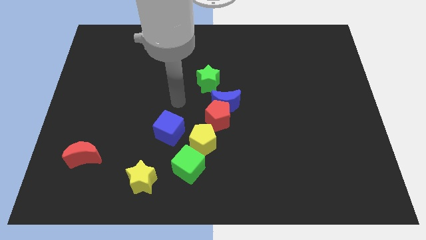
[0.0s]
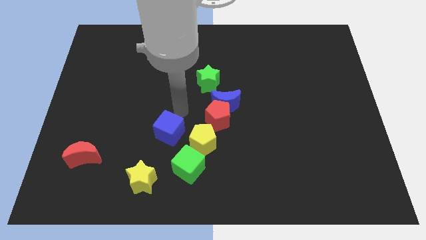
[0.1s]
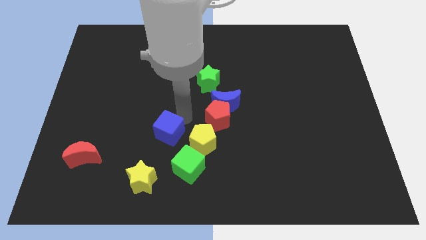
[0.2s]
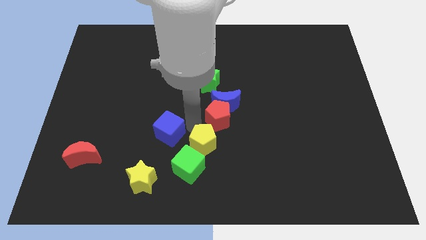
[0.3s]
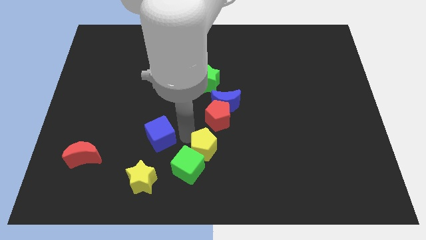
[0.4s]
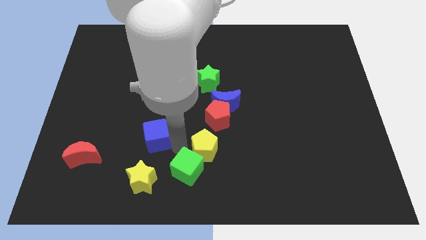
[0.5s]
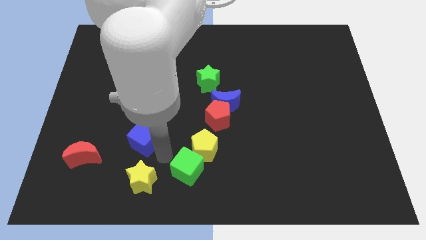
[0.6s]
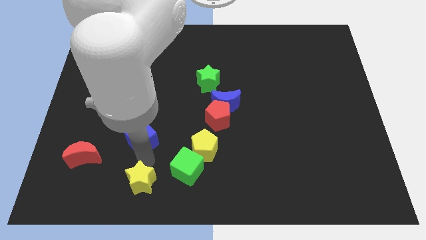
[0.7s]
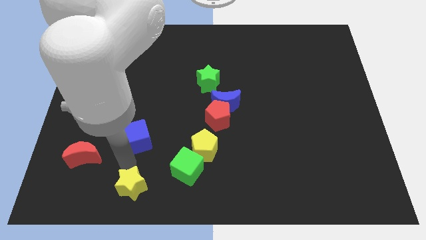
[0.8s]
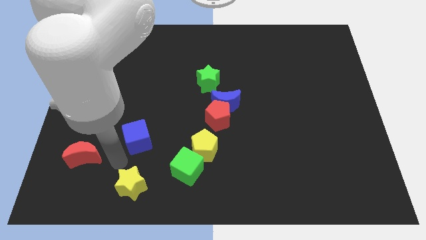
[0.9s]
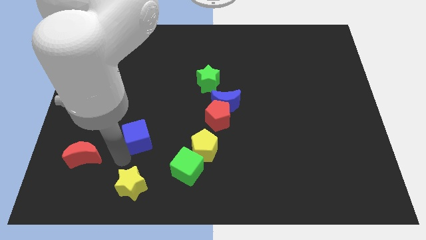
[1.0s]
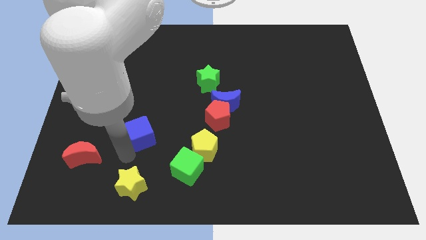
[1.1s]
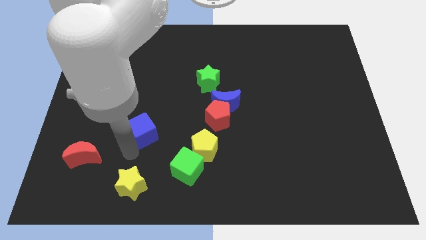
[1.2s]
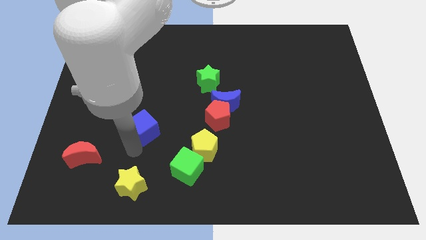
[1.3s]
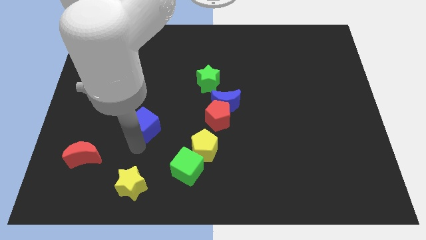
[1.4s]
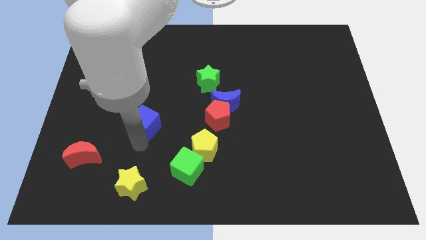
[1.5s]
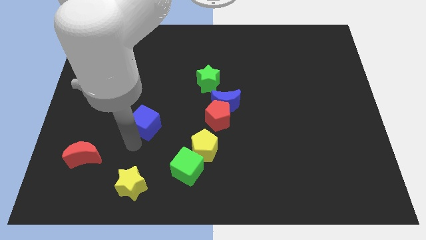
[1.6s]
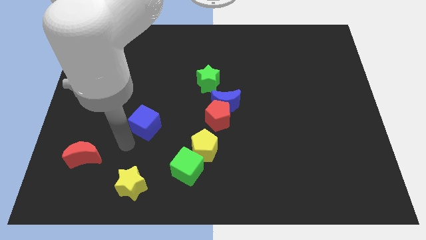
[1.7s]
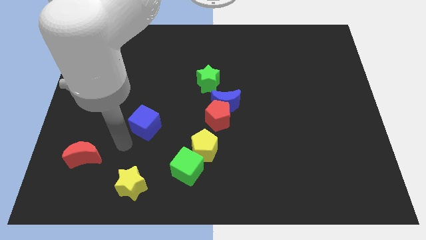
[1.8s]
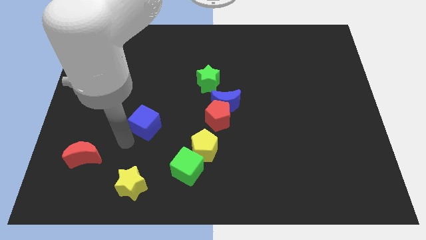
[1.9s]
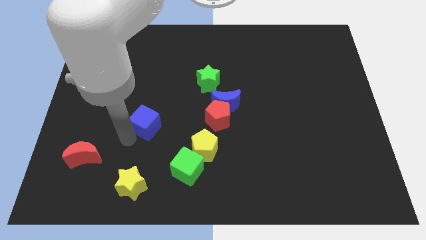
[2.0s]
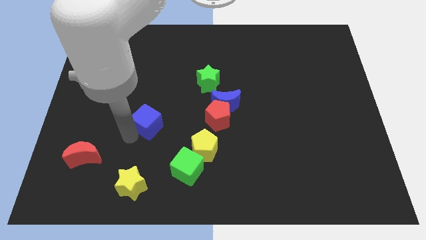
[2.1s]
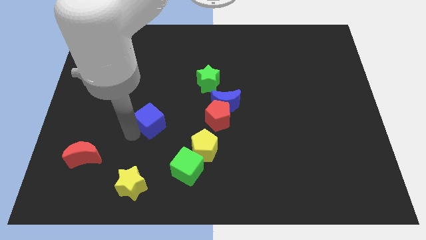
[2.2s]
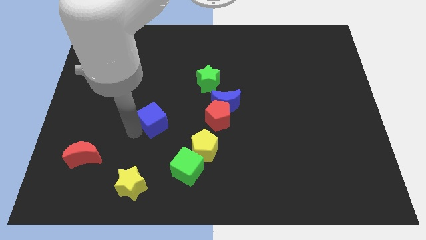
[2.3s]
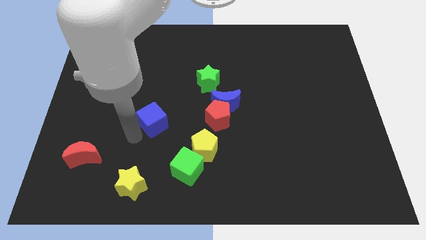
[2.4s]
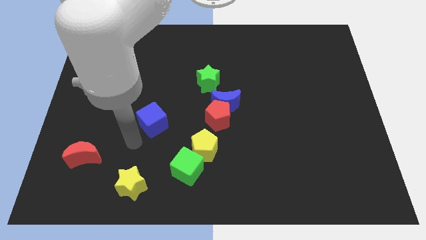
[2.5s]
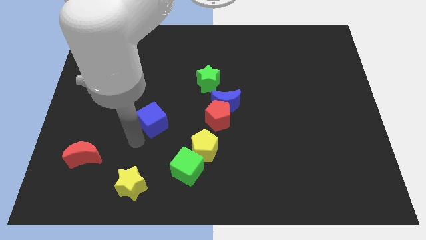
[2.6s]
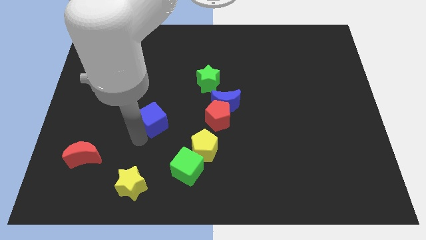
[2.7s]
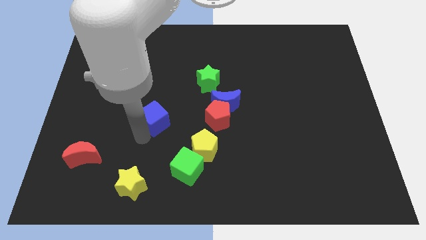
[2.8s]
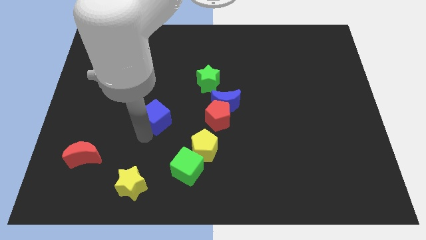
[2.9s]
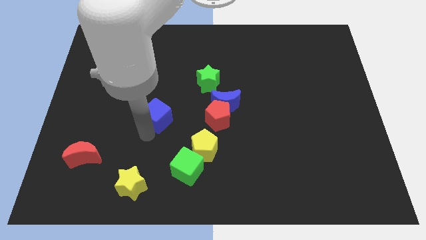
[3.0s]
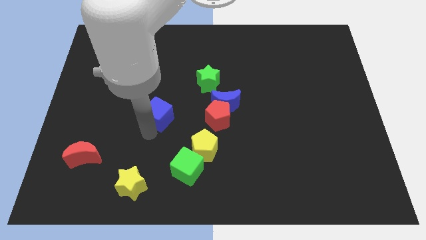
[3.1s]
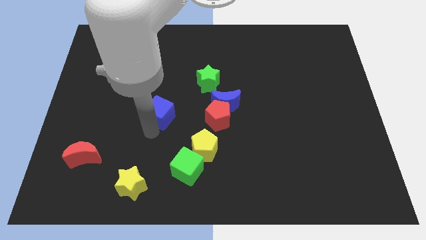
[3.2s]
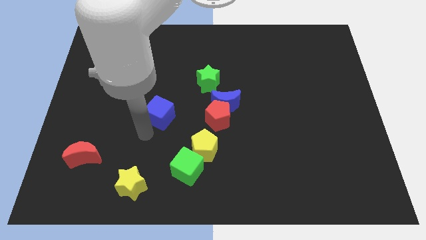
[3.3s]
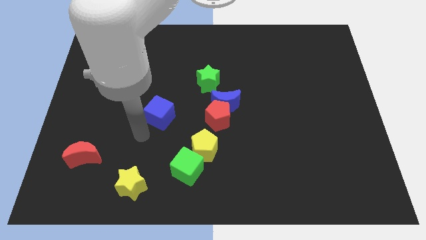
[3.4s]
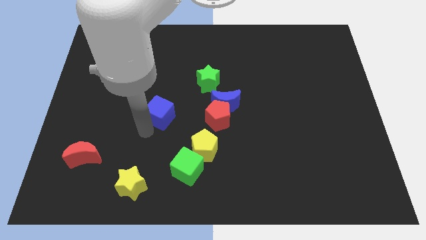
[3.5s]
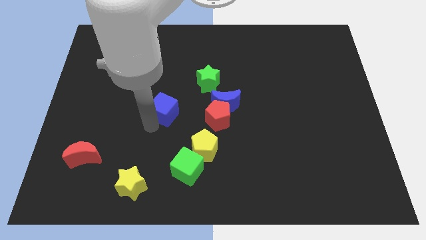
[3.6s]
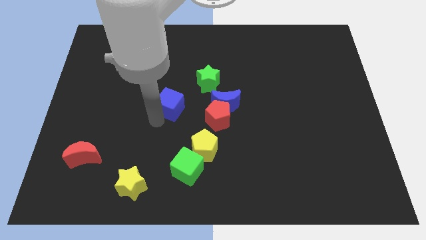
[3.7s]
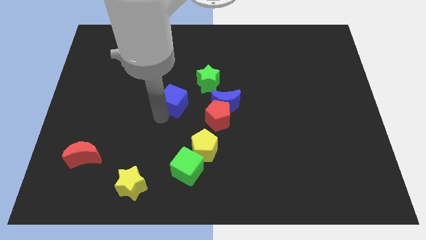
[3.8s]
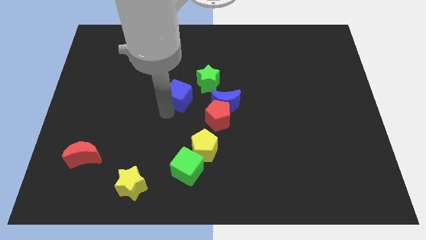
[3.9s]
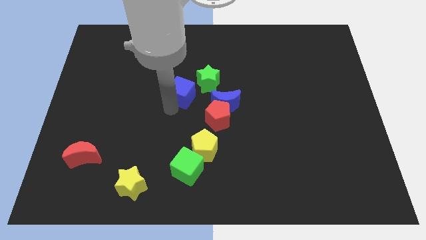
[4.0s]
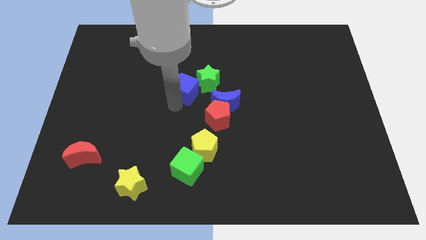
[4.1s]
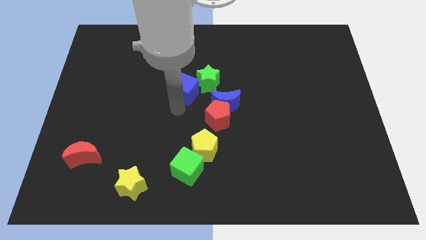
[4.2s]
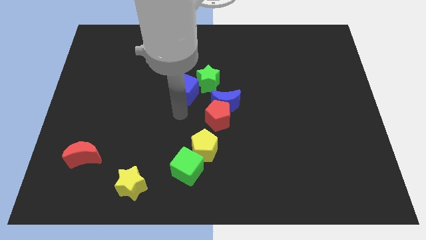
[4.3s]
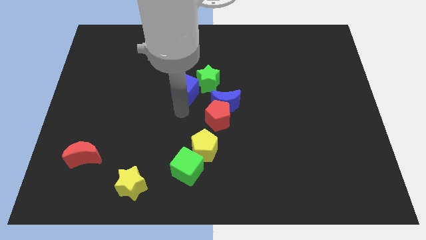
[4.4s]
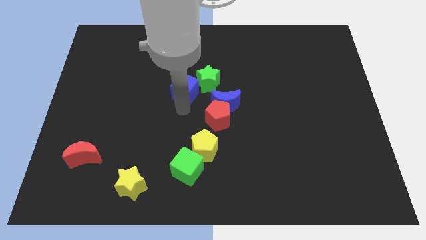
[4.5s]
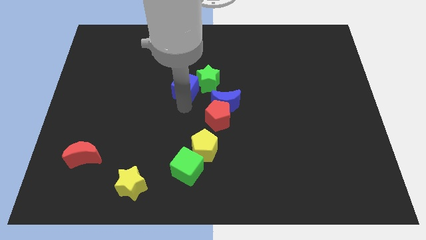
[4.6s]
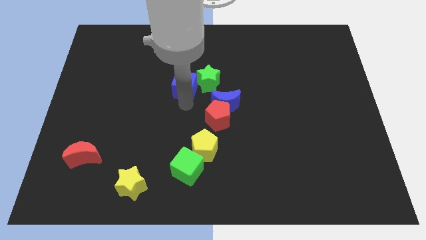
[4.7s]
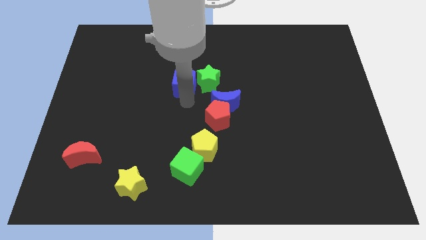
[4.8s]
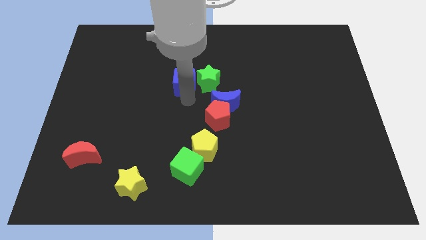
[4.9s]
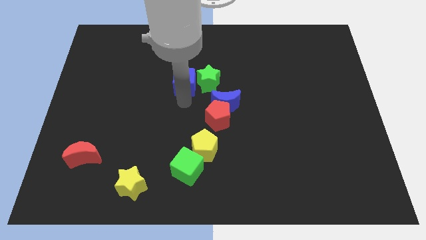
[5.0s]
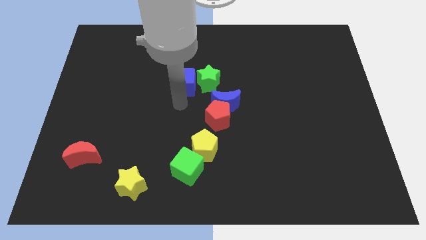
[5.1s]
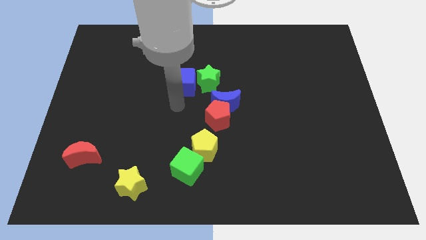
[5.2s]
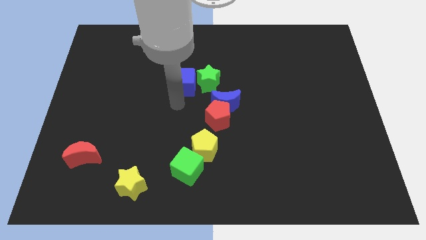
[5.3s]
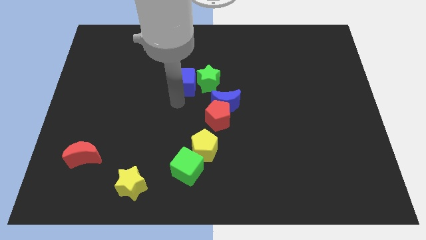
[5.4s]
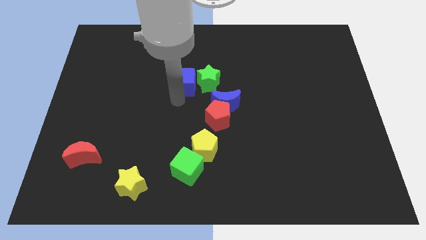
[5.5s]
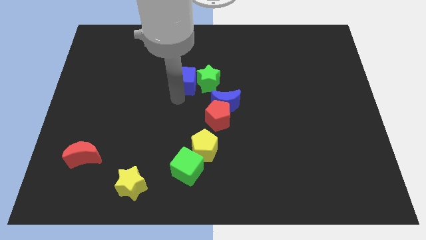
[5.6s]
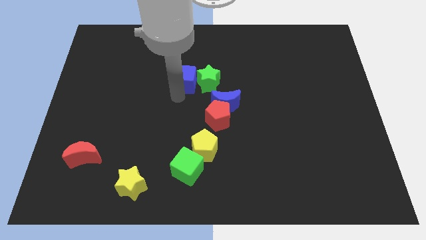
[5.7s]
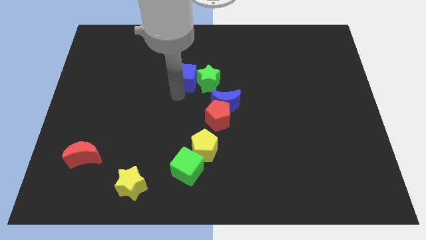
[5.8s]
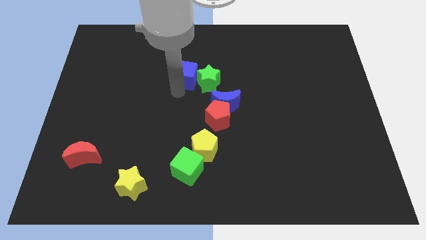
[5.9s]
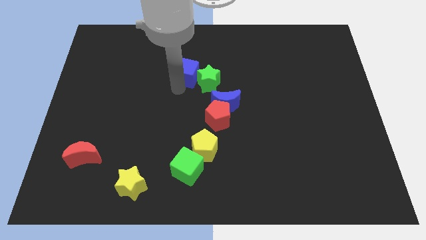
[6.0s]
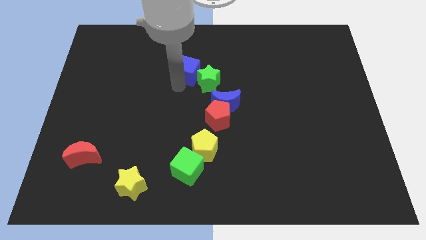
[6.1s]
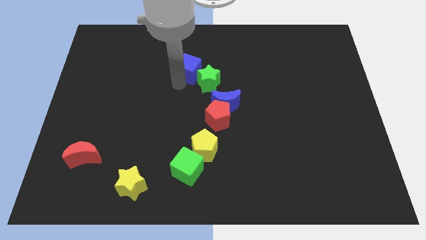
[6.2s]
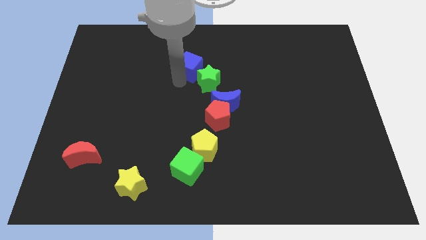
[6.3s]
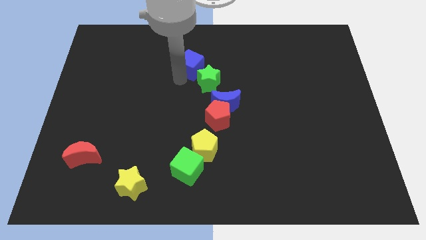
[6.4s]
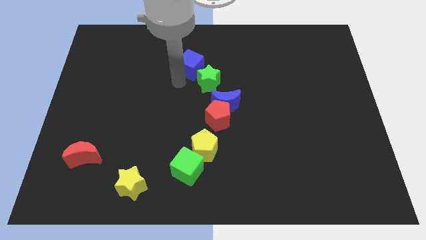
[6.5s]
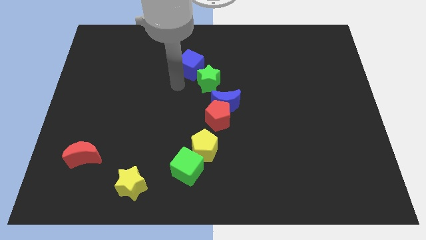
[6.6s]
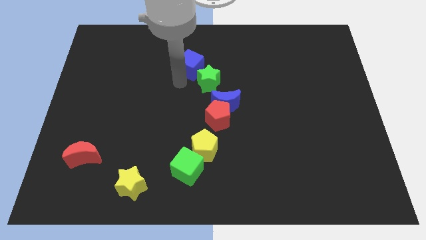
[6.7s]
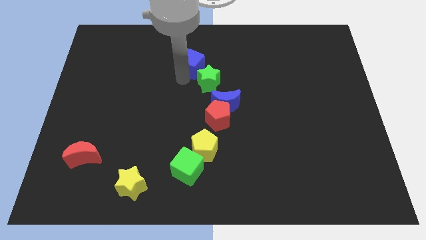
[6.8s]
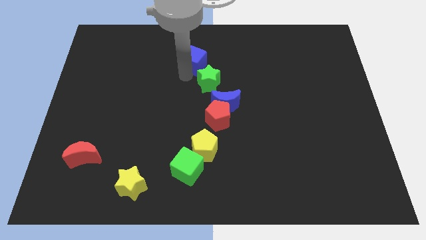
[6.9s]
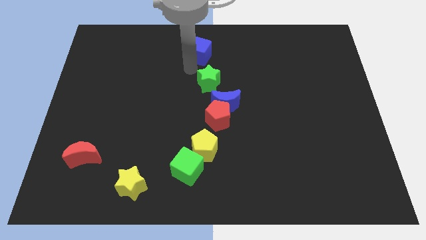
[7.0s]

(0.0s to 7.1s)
move the blue cube to the top

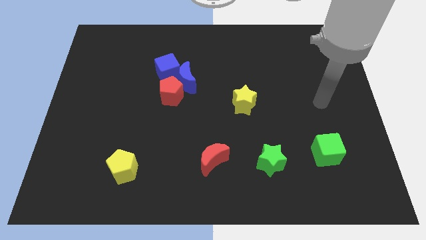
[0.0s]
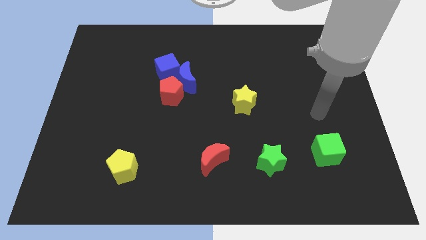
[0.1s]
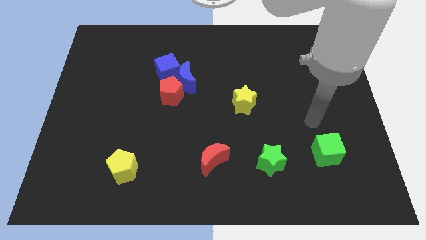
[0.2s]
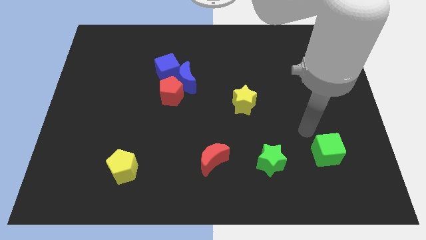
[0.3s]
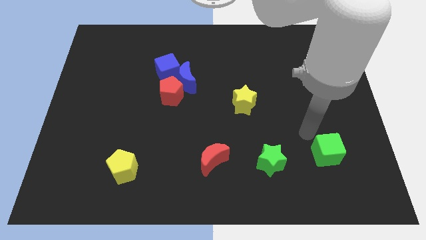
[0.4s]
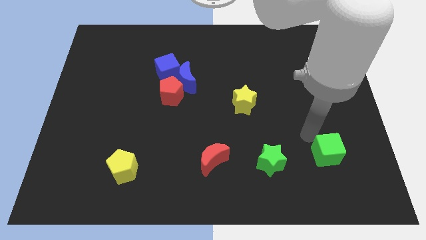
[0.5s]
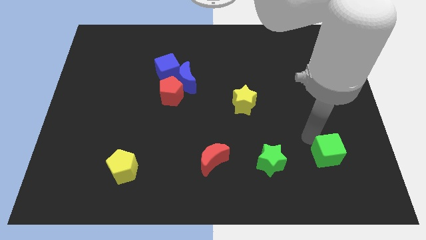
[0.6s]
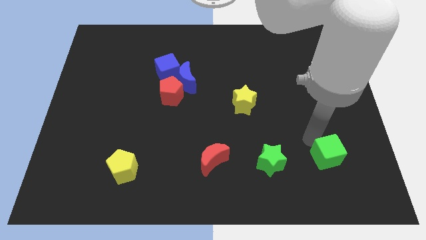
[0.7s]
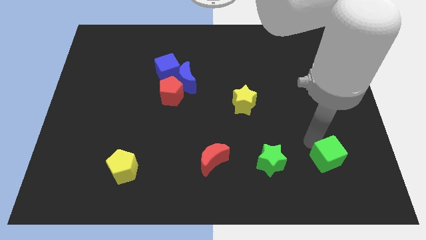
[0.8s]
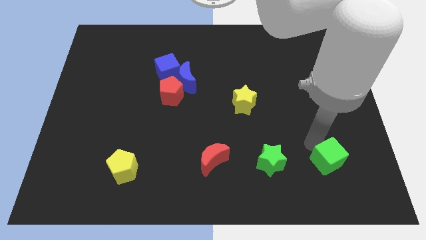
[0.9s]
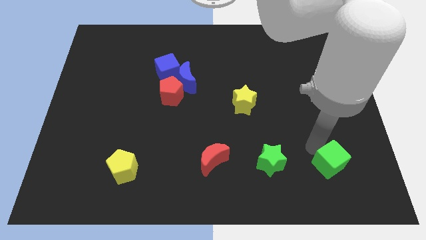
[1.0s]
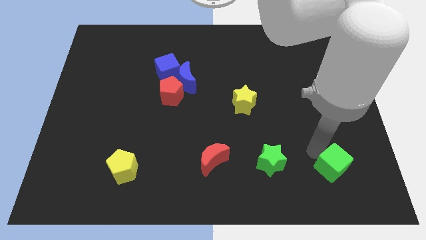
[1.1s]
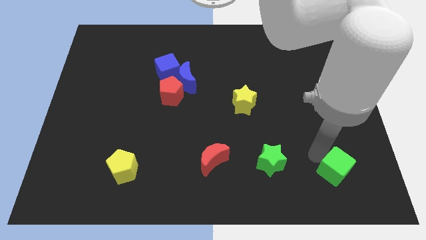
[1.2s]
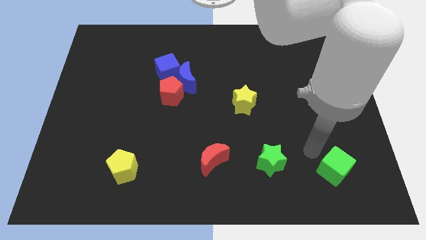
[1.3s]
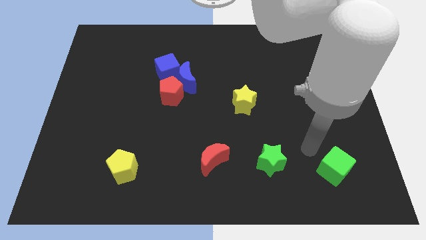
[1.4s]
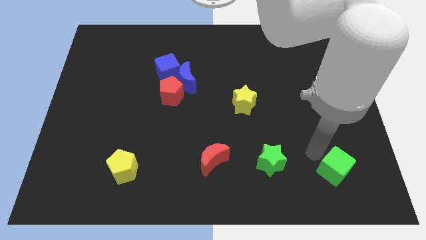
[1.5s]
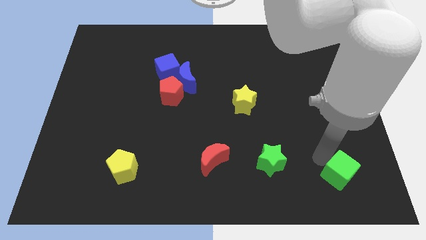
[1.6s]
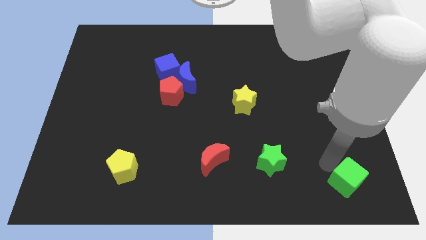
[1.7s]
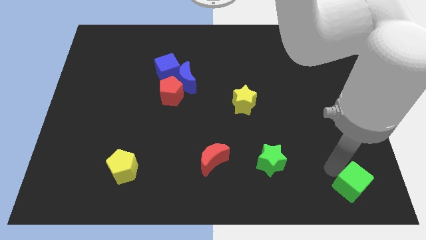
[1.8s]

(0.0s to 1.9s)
slide the green cube to the lower right corner
